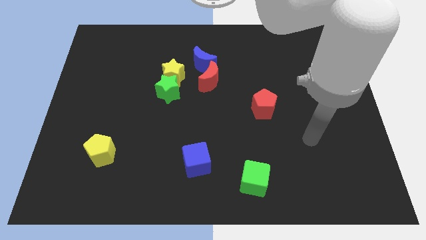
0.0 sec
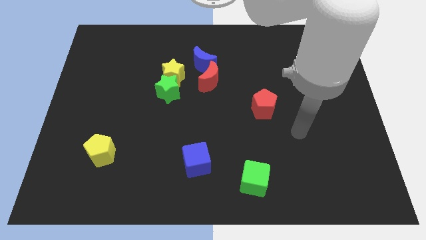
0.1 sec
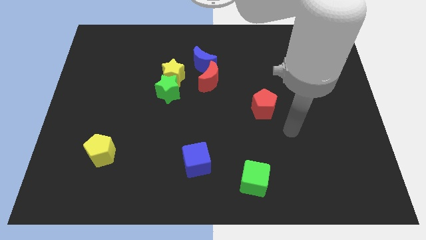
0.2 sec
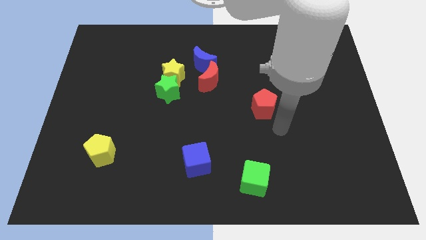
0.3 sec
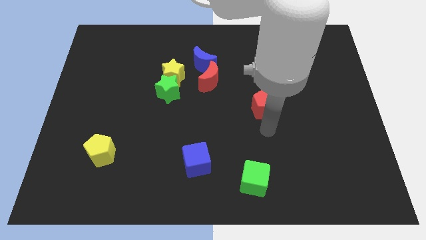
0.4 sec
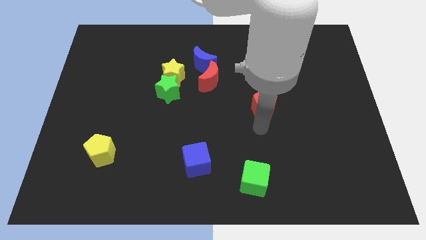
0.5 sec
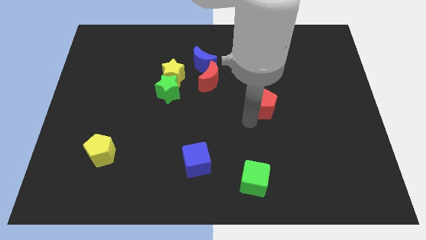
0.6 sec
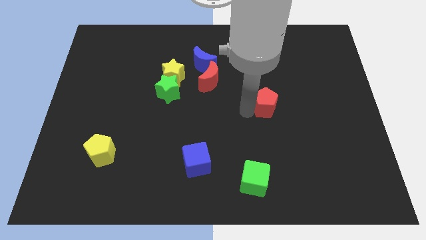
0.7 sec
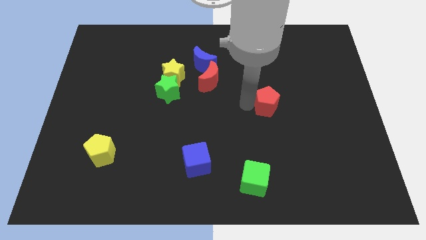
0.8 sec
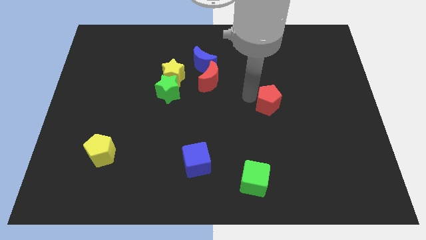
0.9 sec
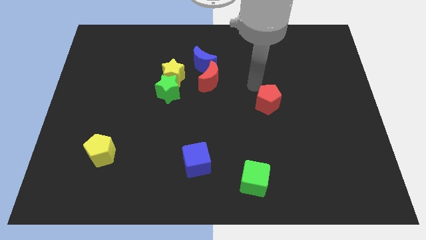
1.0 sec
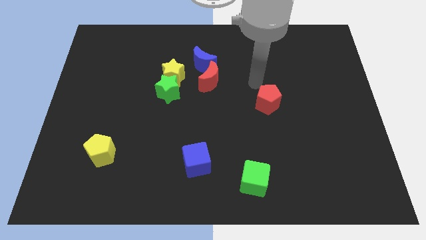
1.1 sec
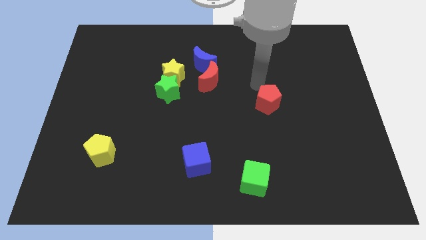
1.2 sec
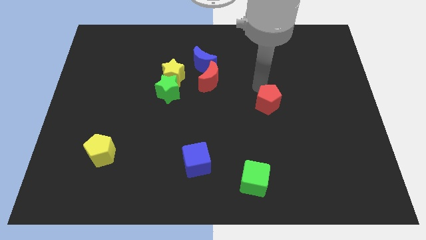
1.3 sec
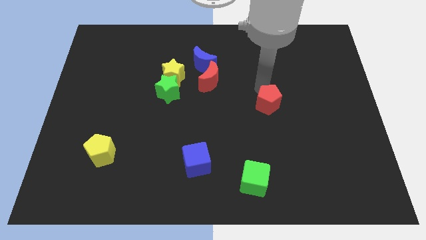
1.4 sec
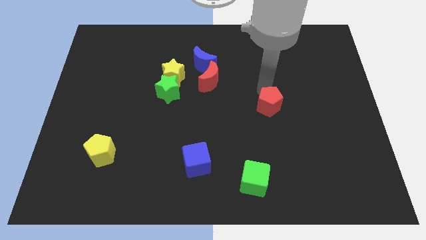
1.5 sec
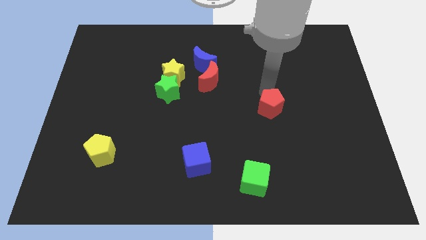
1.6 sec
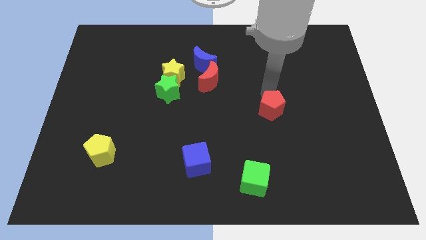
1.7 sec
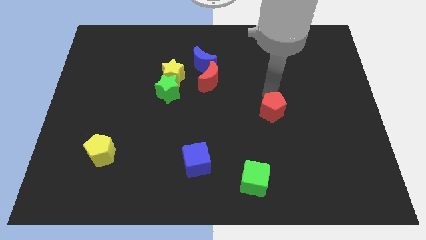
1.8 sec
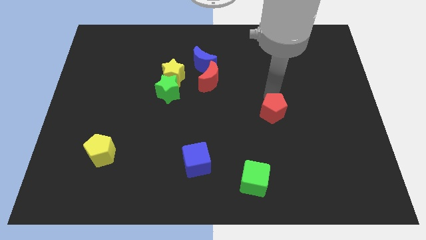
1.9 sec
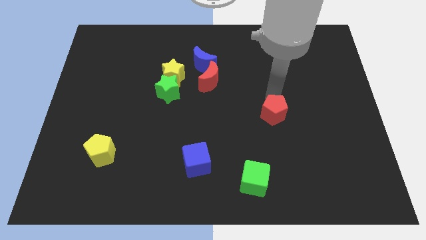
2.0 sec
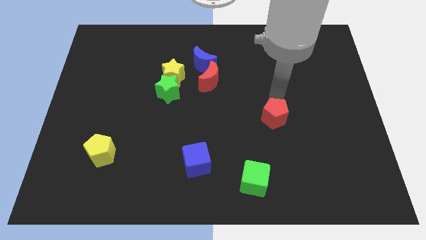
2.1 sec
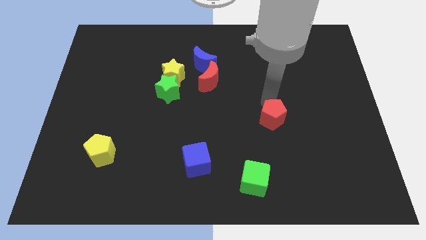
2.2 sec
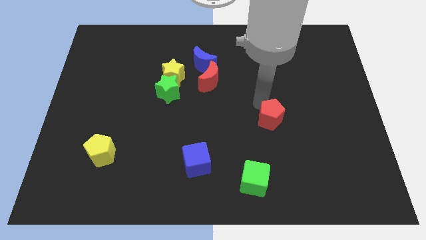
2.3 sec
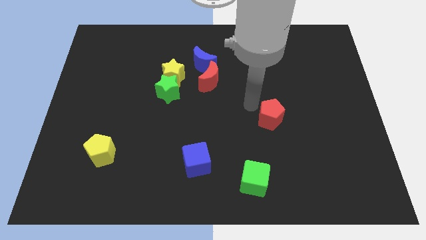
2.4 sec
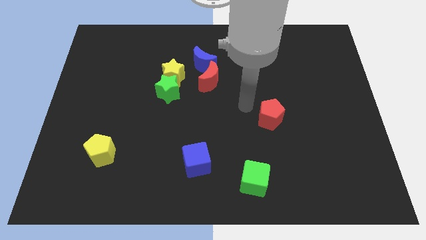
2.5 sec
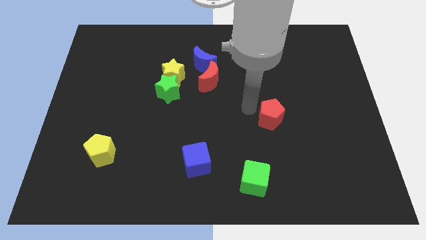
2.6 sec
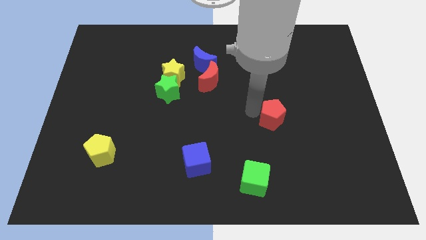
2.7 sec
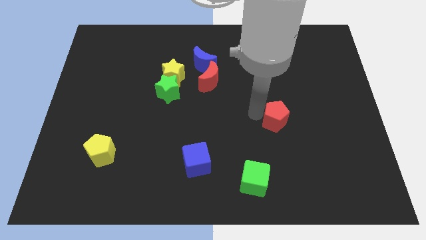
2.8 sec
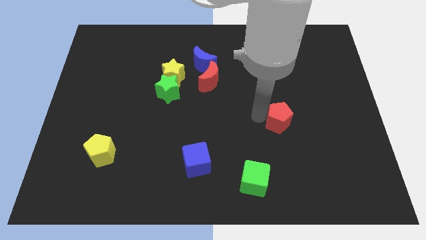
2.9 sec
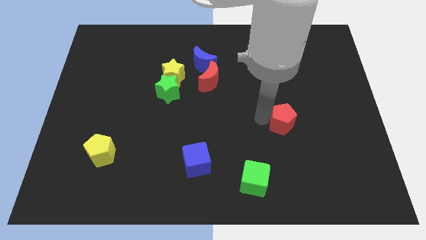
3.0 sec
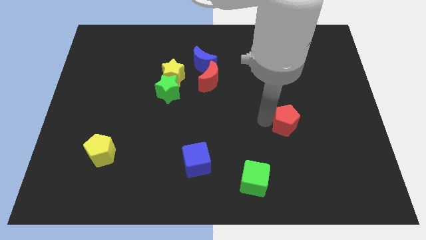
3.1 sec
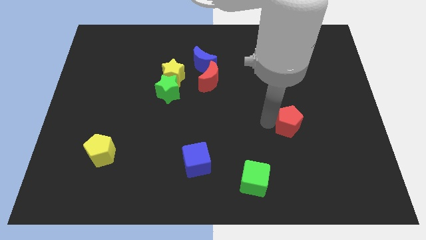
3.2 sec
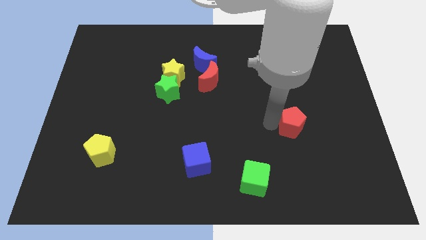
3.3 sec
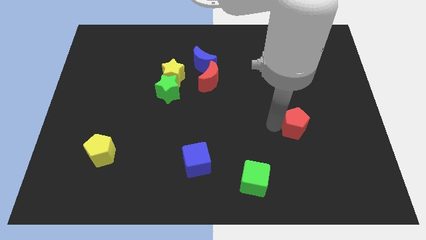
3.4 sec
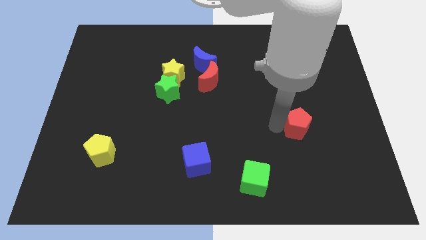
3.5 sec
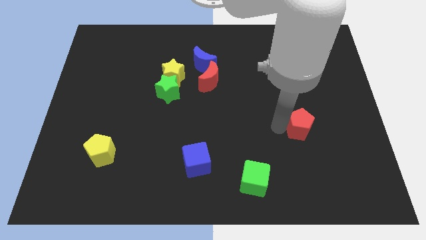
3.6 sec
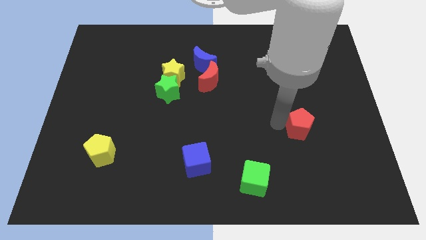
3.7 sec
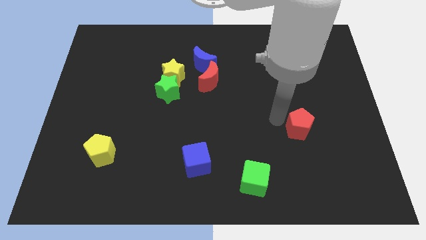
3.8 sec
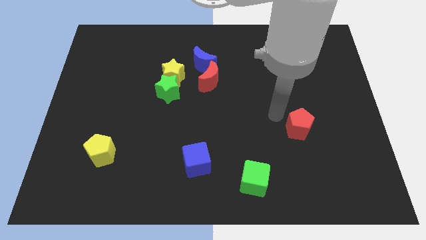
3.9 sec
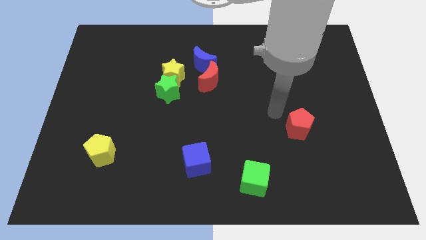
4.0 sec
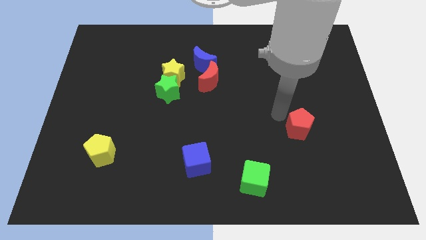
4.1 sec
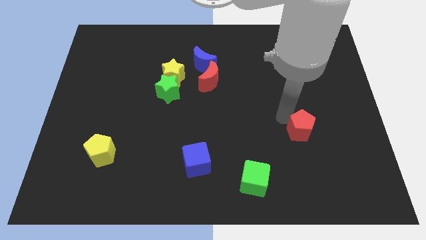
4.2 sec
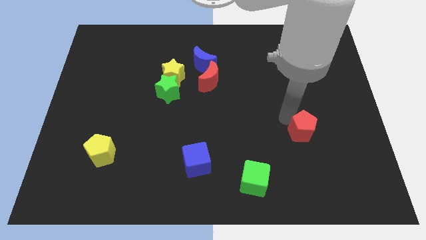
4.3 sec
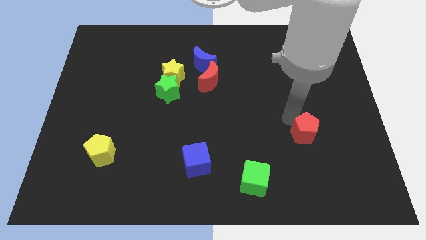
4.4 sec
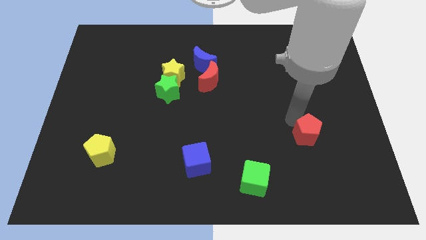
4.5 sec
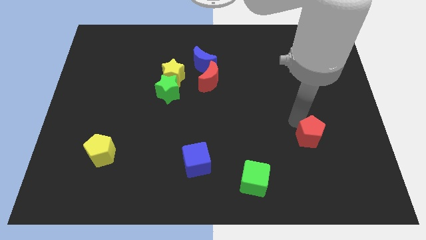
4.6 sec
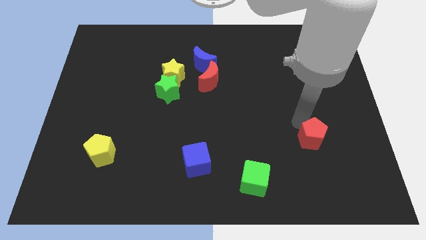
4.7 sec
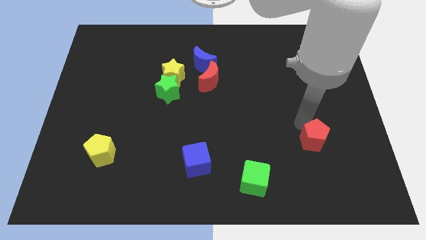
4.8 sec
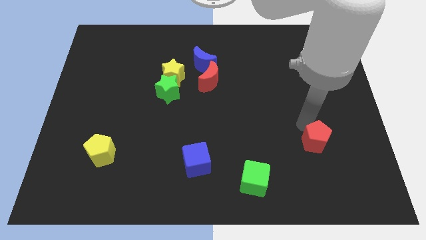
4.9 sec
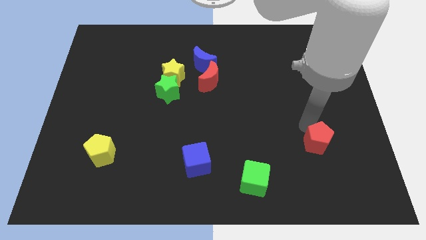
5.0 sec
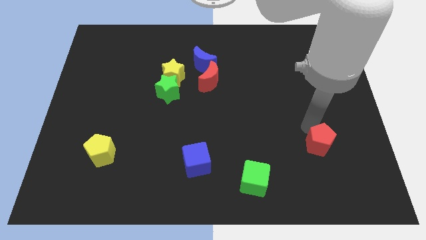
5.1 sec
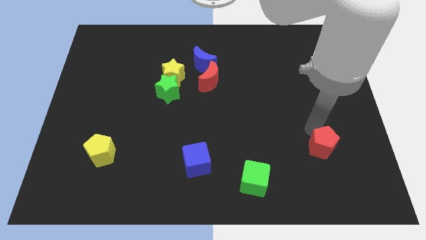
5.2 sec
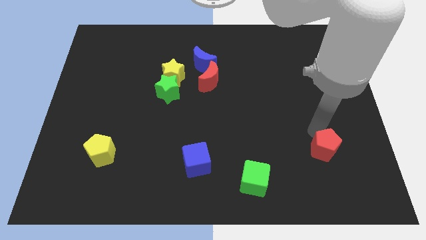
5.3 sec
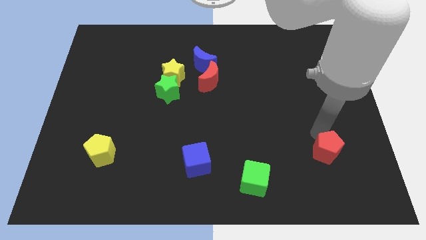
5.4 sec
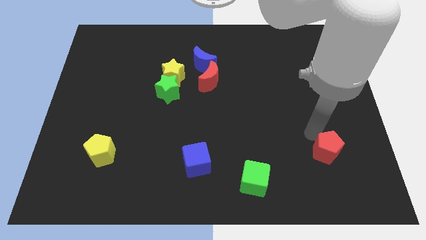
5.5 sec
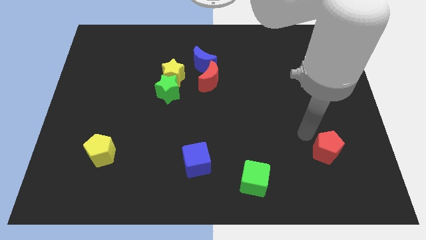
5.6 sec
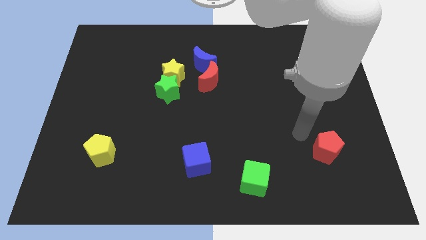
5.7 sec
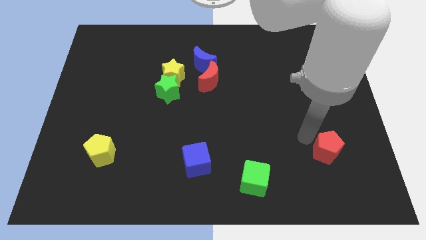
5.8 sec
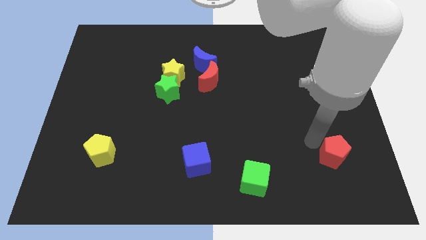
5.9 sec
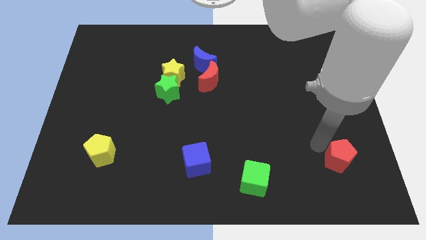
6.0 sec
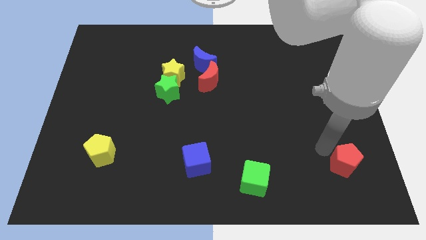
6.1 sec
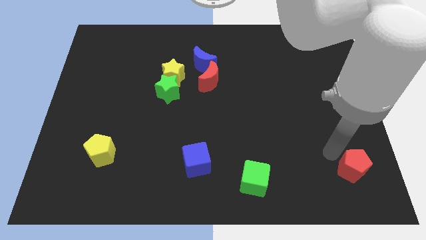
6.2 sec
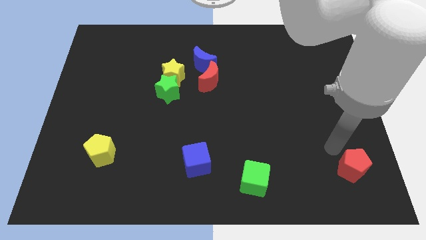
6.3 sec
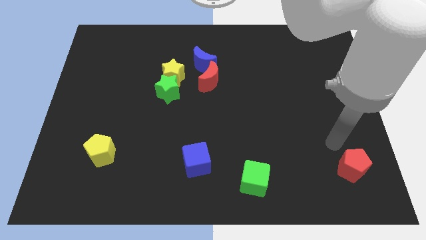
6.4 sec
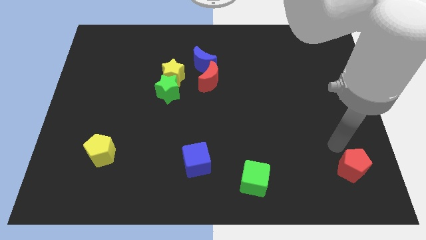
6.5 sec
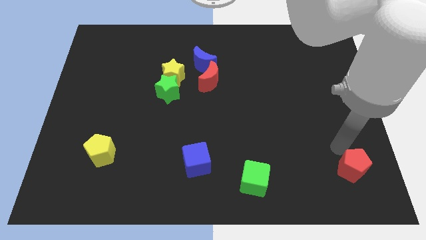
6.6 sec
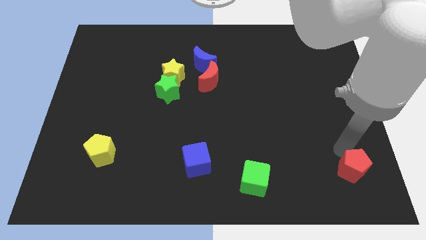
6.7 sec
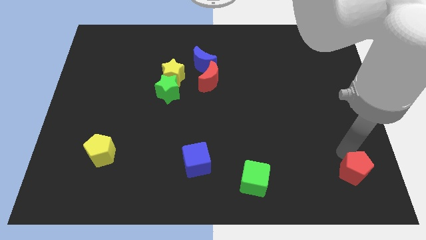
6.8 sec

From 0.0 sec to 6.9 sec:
slide the red pentagon to the bottom right
